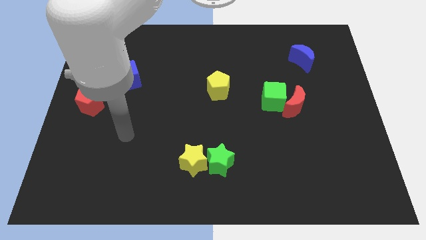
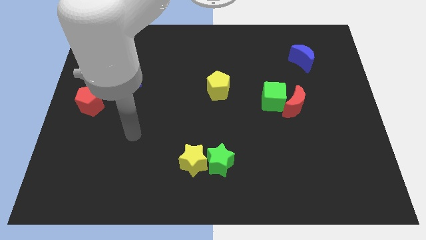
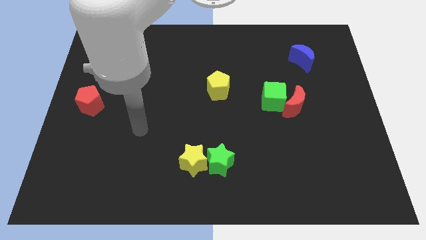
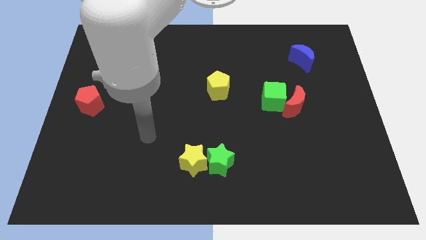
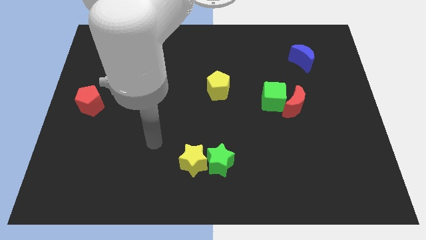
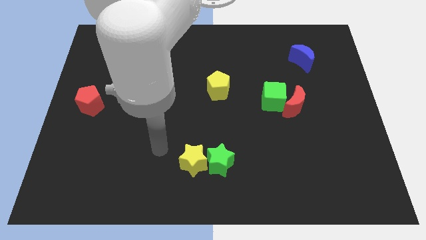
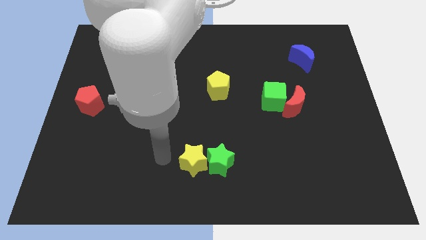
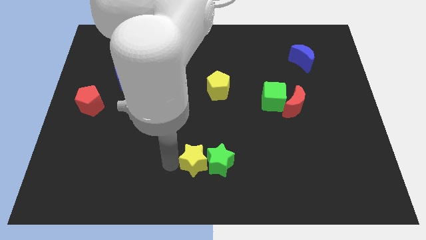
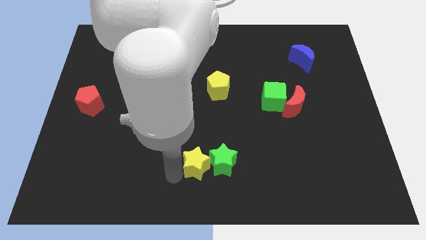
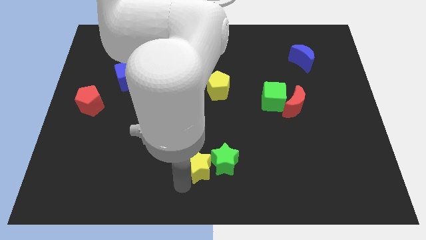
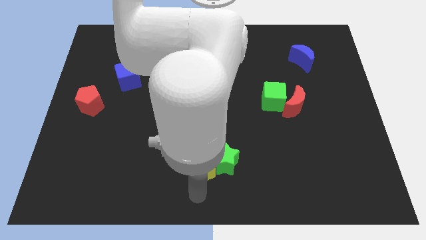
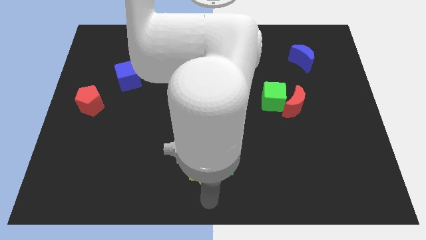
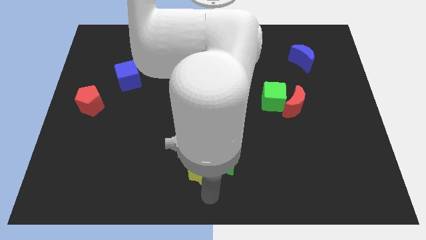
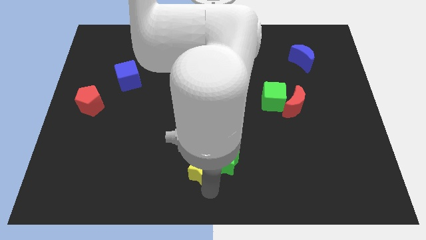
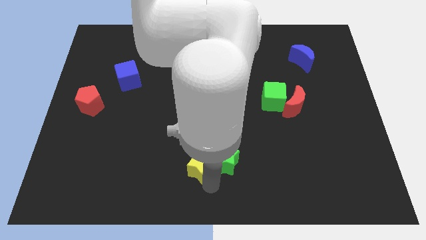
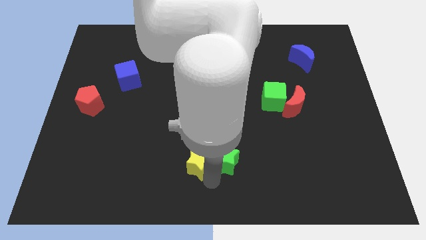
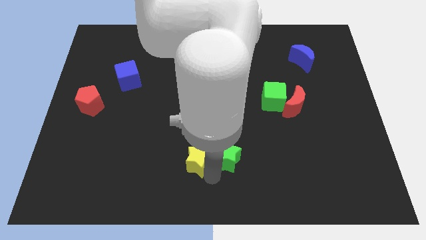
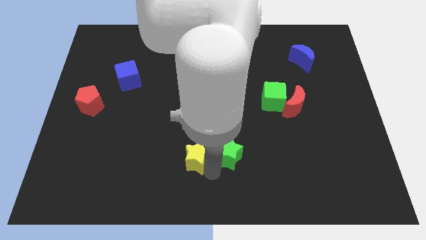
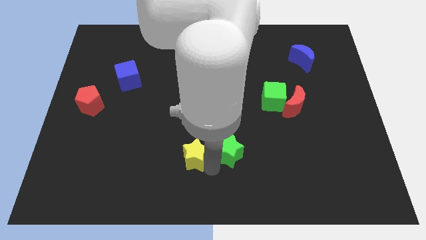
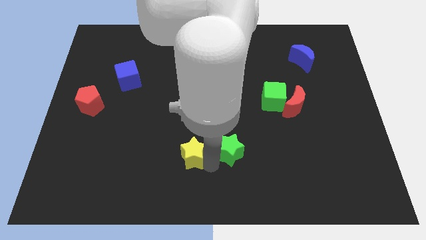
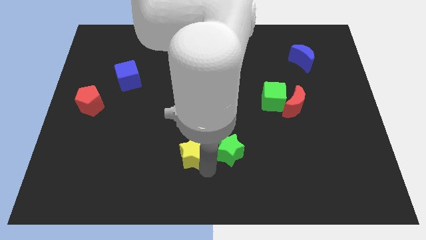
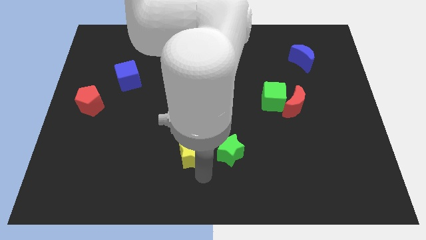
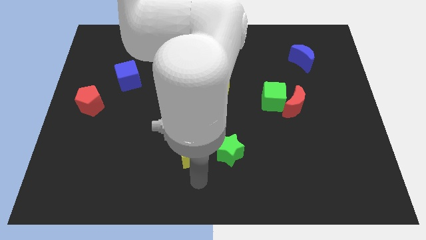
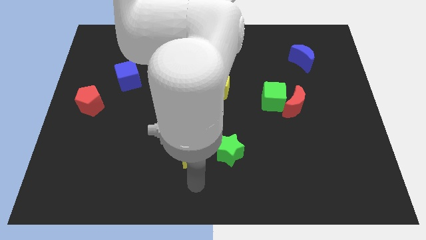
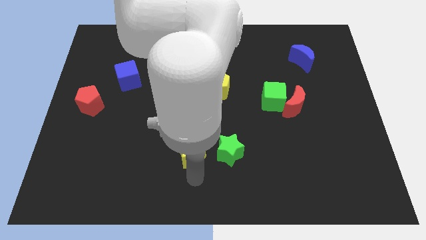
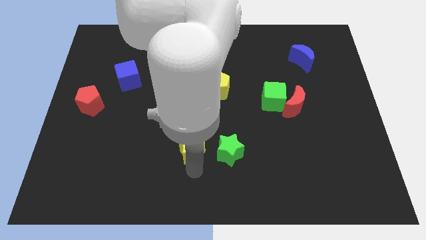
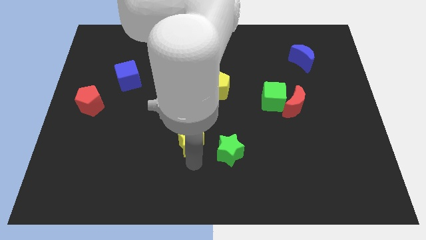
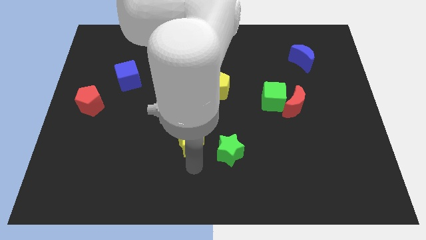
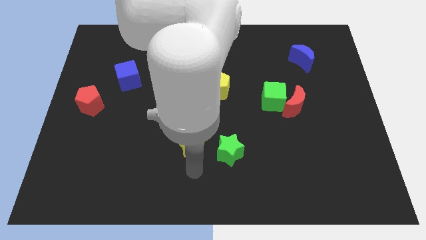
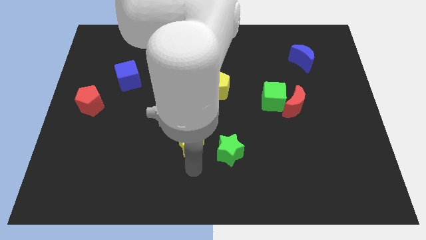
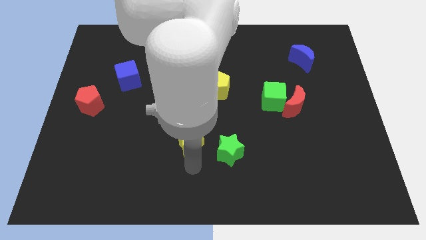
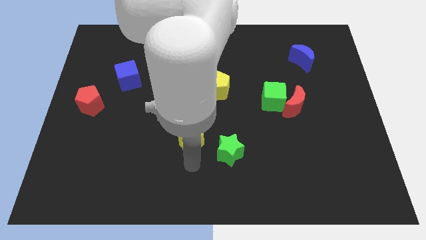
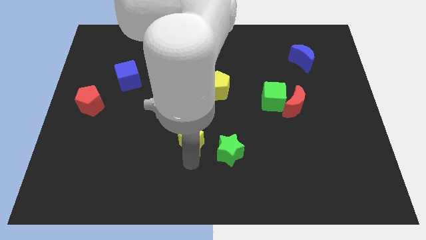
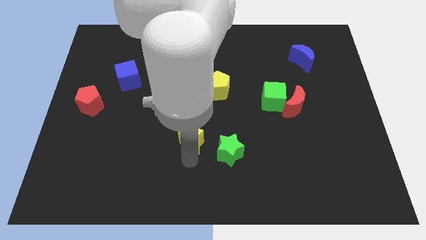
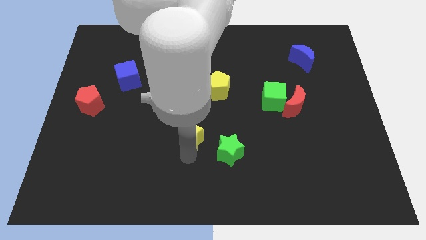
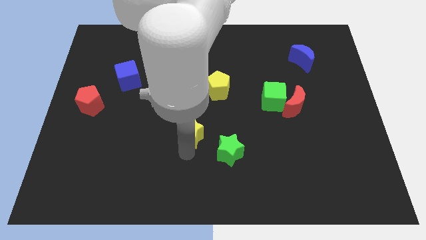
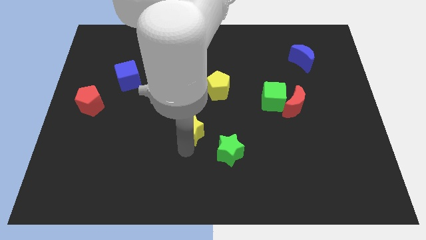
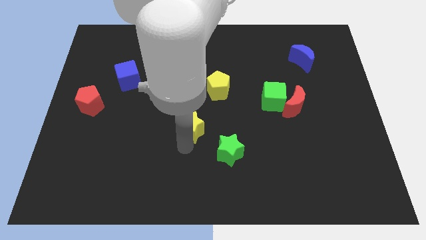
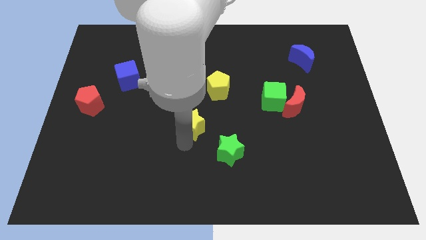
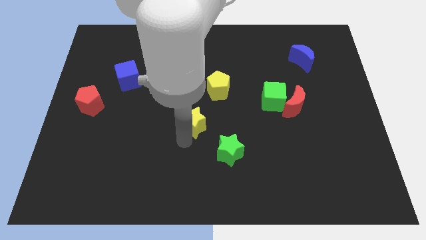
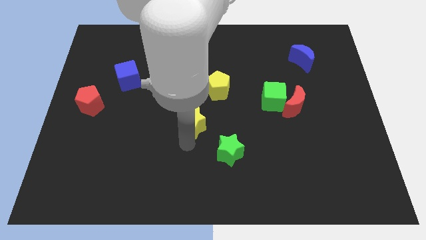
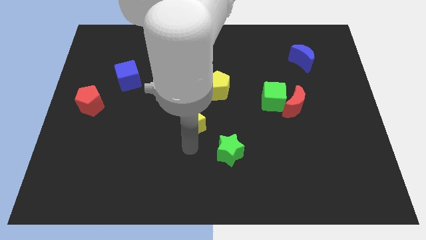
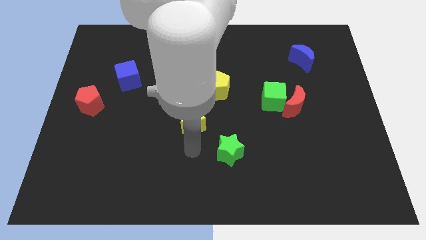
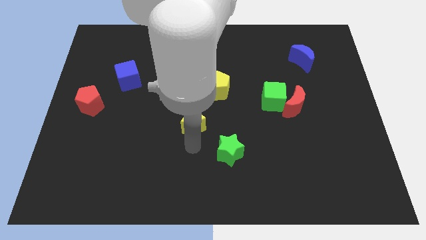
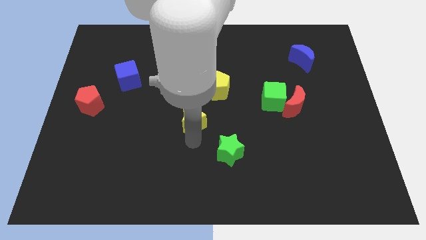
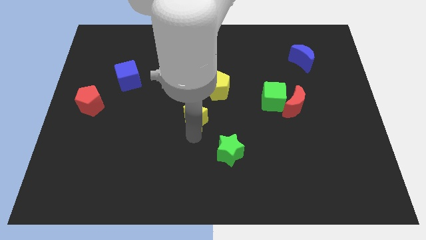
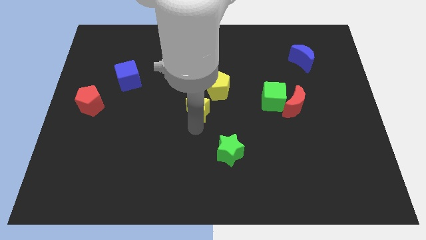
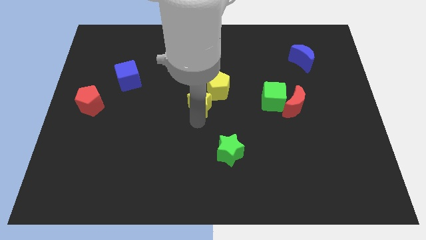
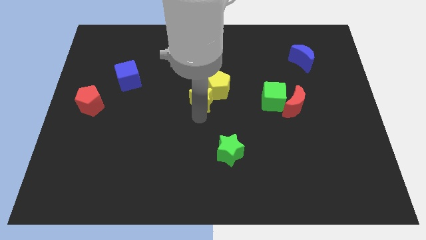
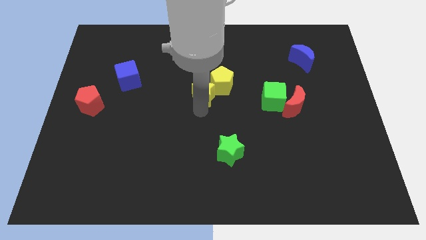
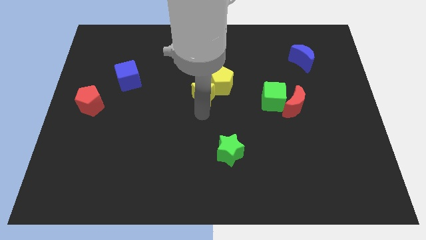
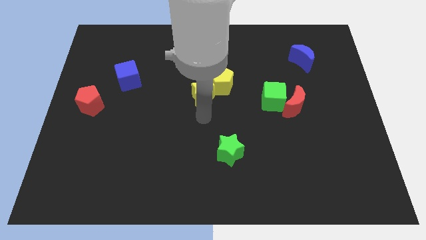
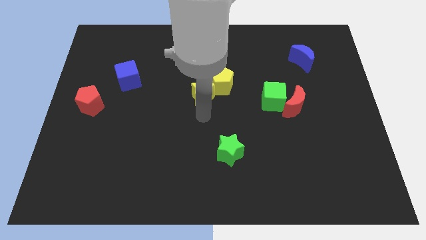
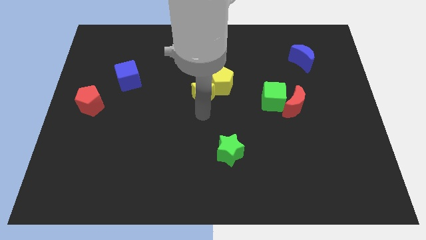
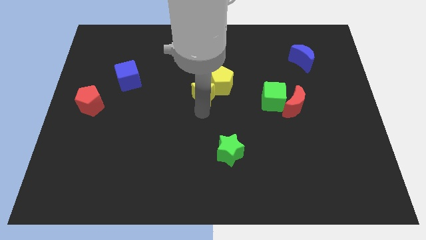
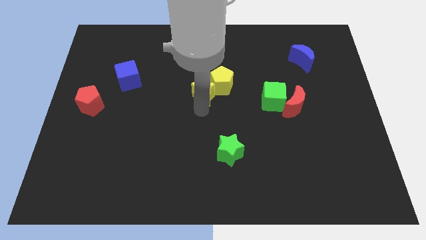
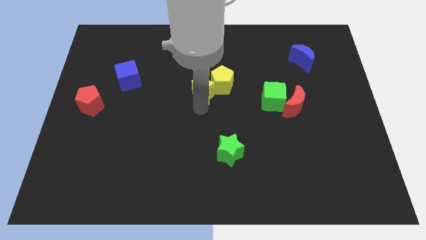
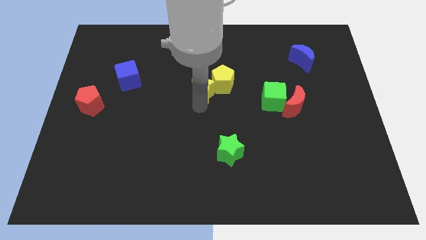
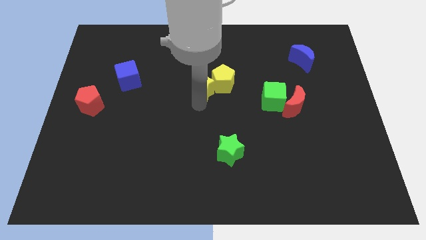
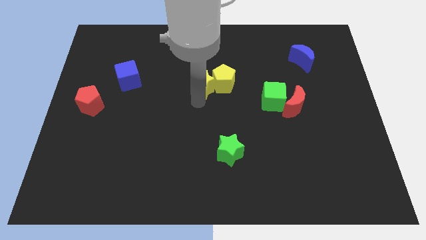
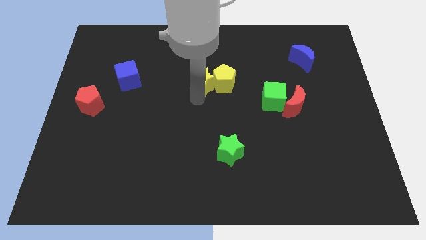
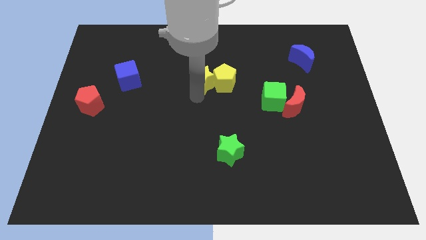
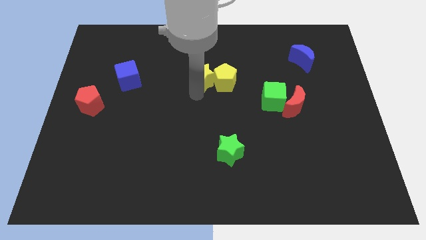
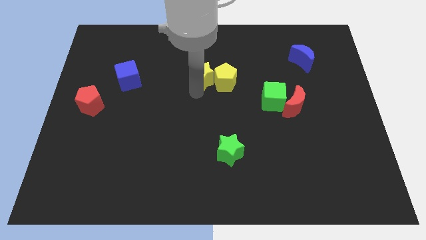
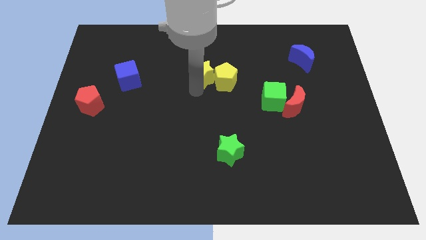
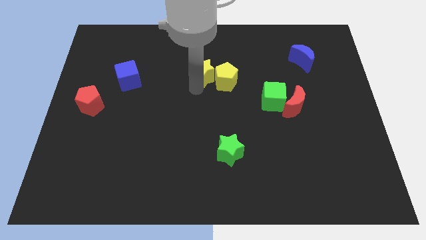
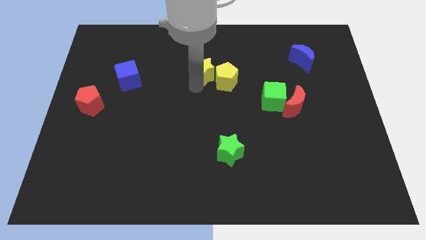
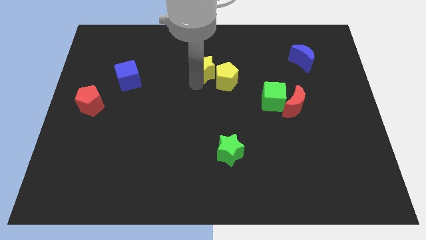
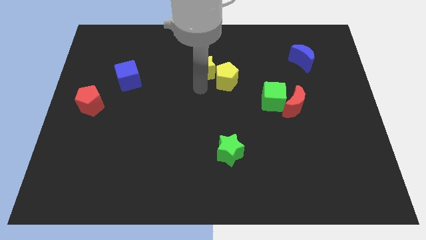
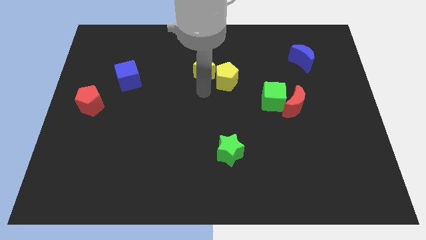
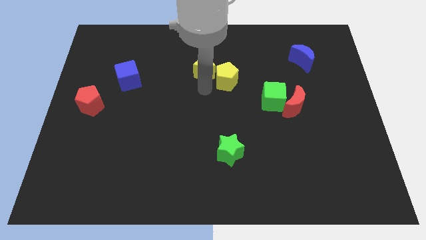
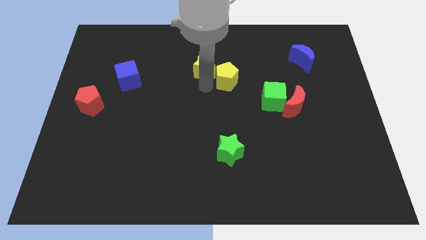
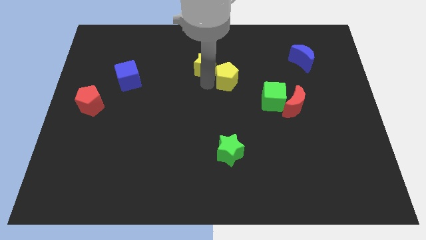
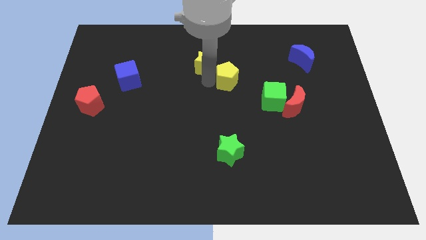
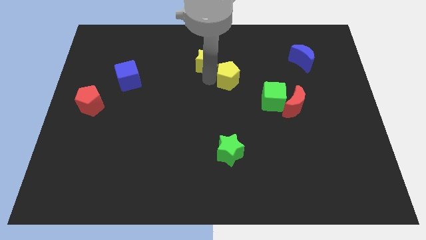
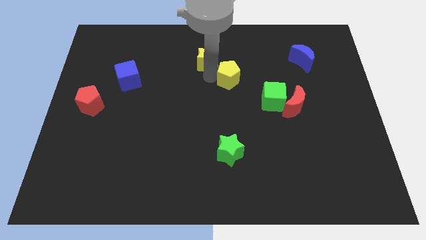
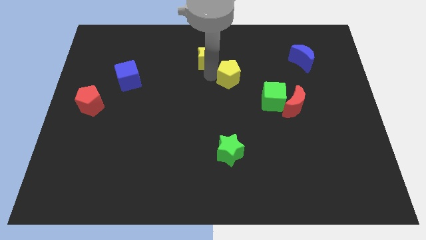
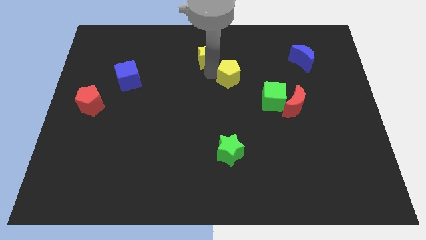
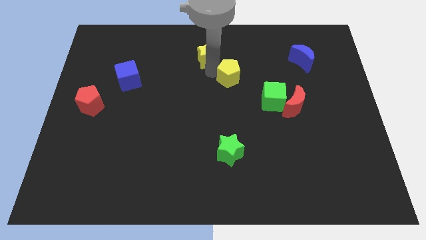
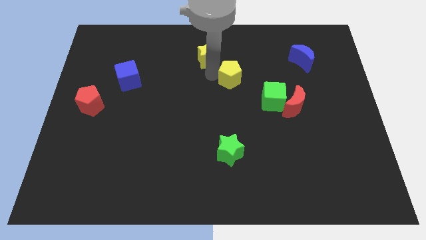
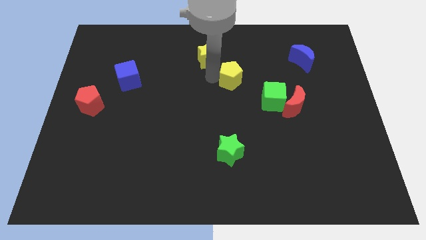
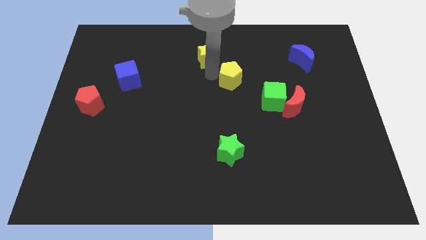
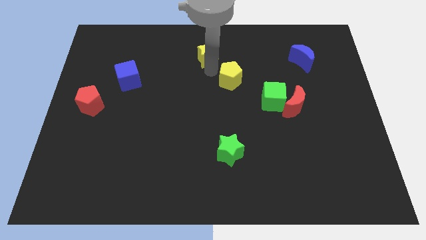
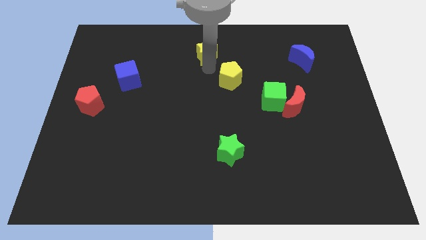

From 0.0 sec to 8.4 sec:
push the yellow star to the towards your base
